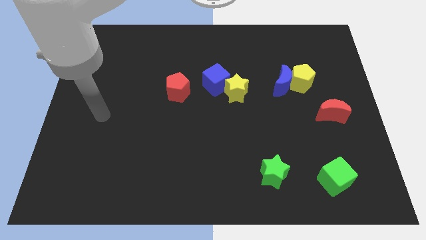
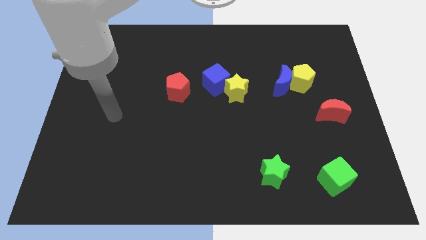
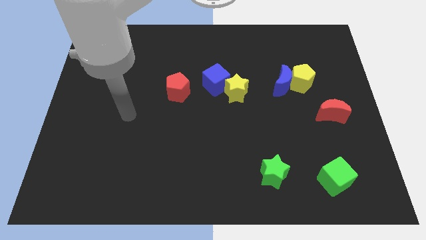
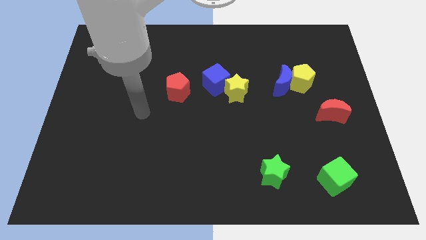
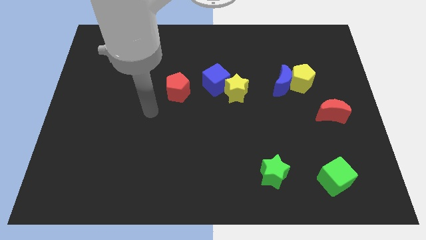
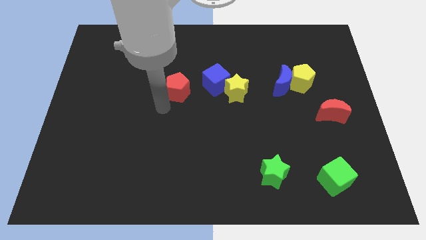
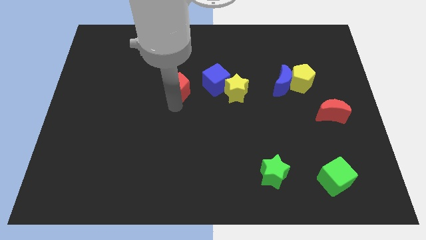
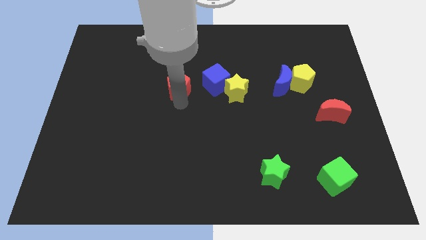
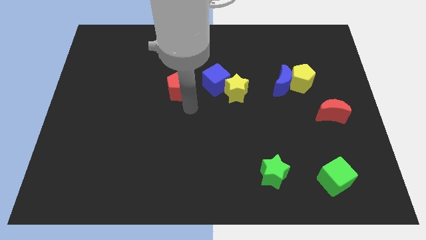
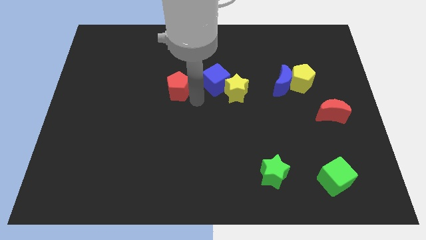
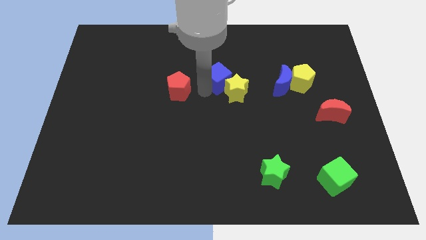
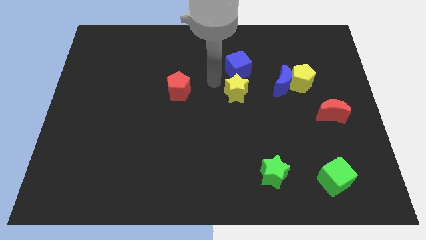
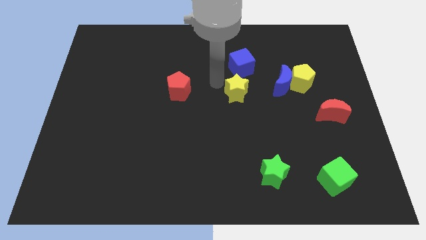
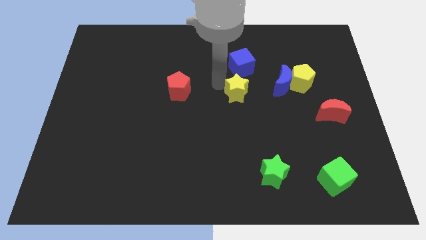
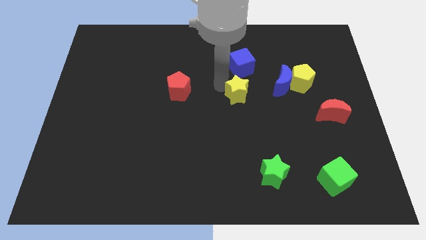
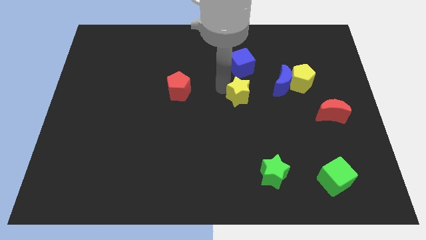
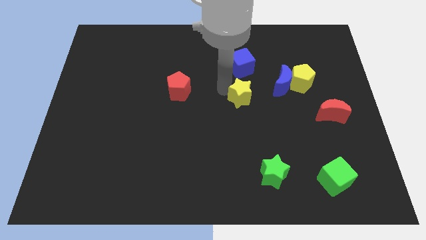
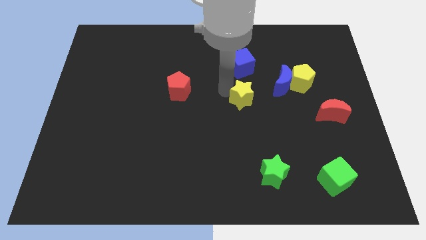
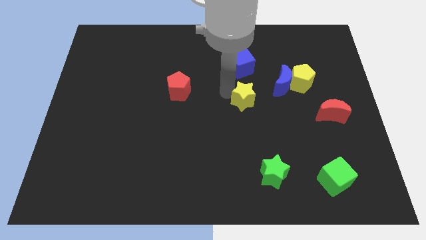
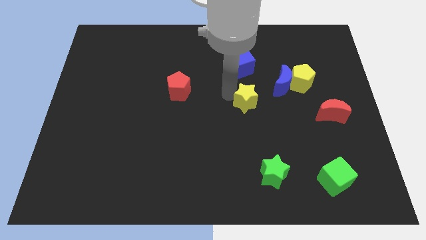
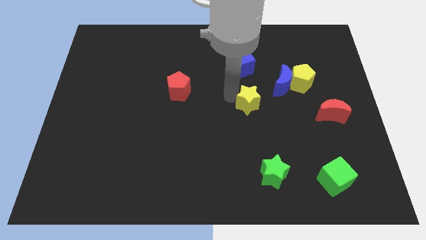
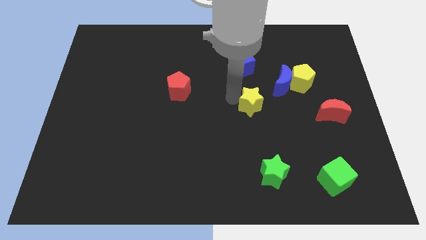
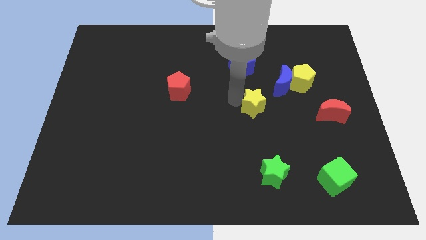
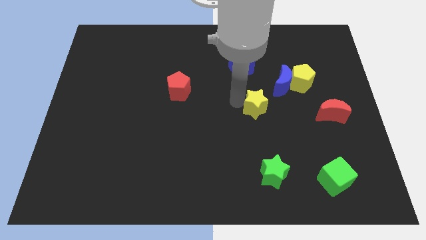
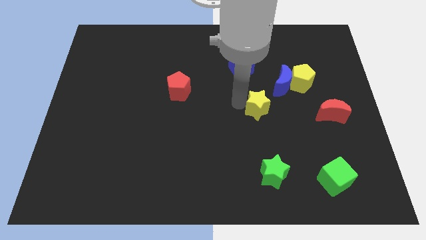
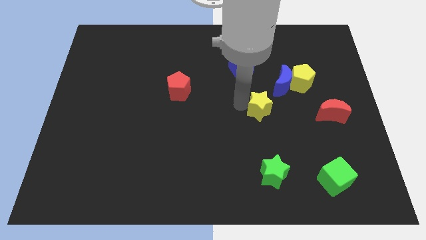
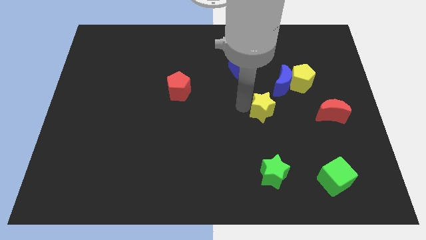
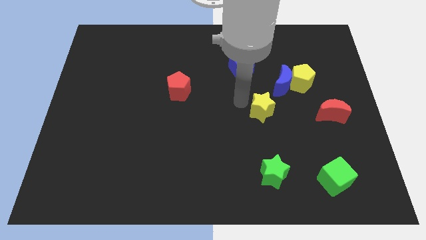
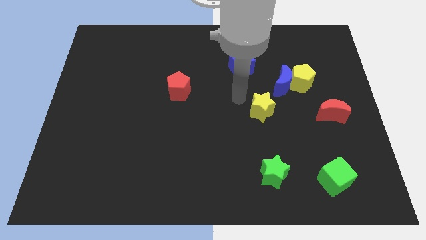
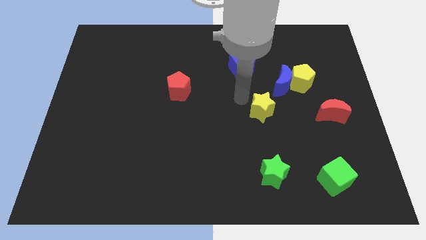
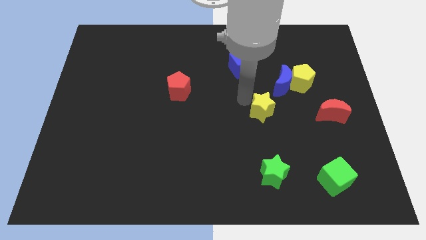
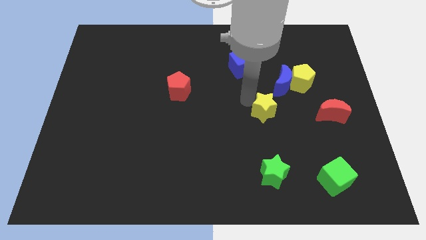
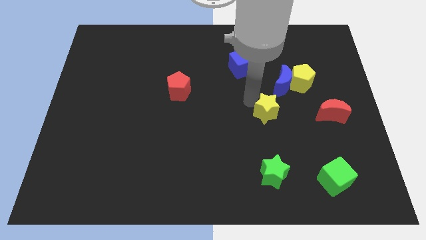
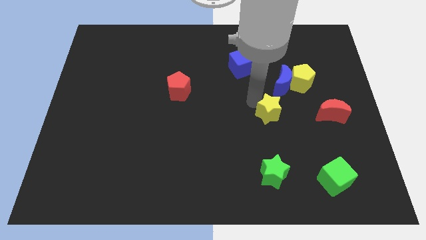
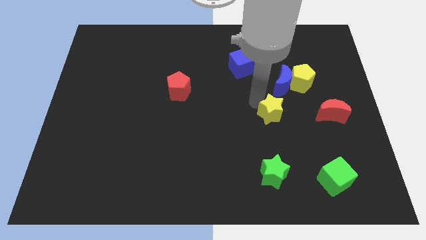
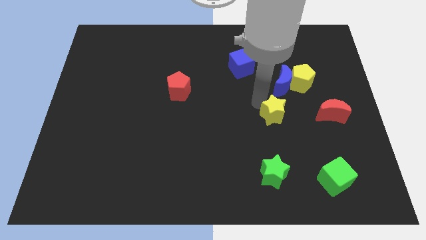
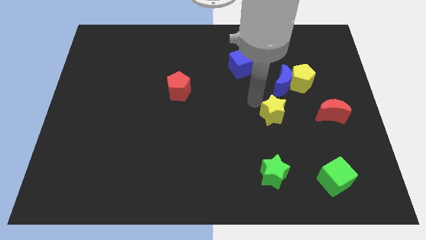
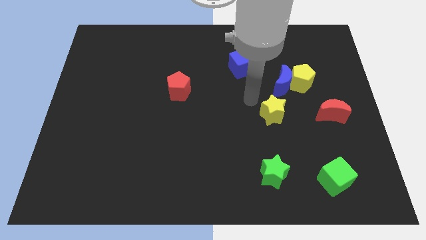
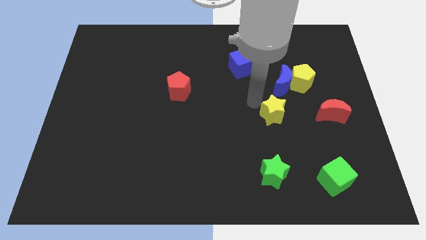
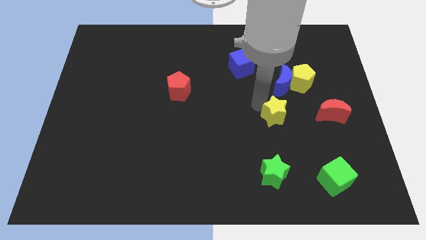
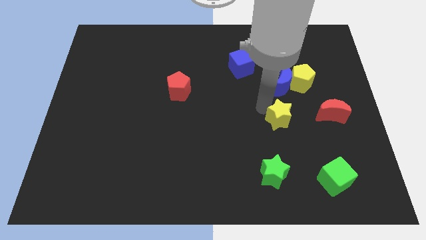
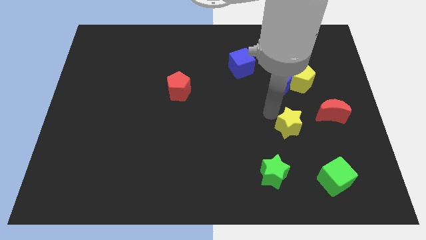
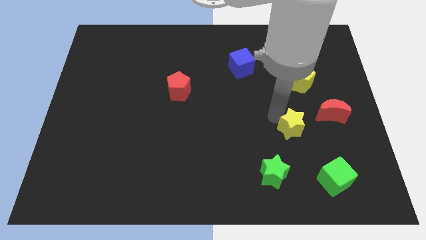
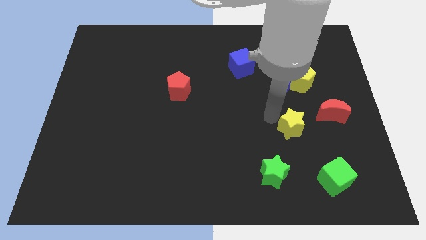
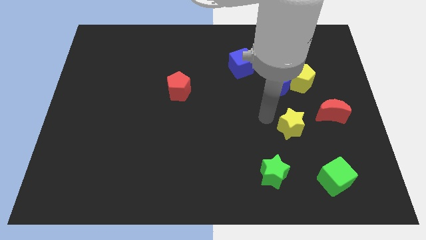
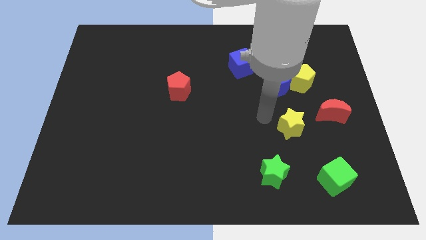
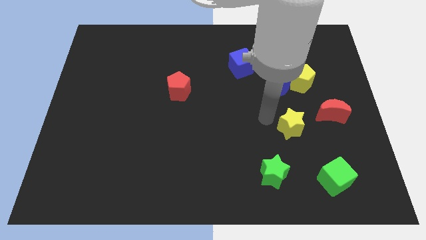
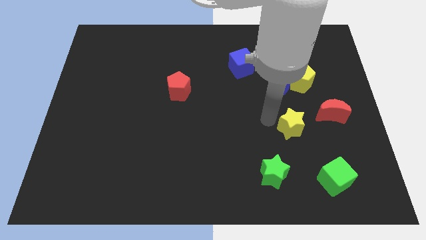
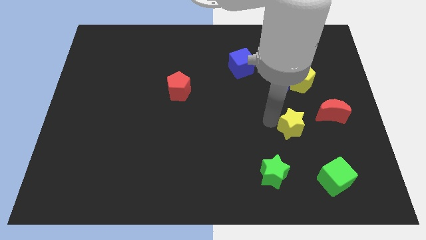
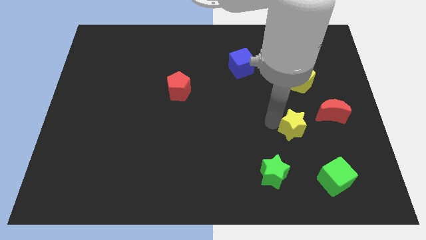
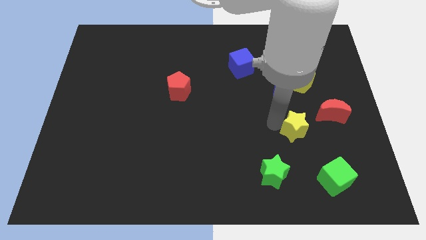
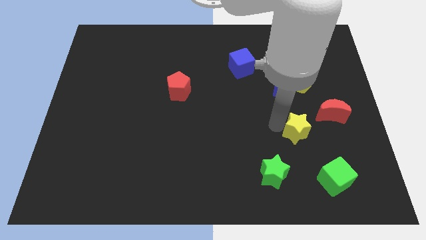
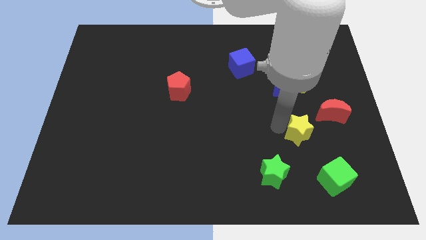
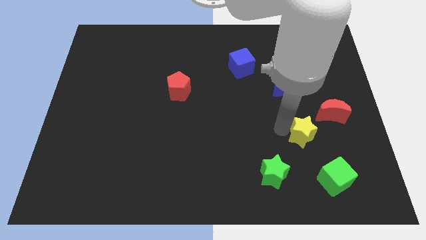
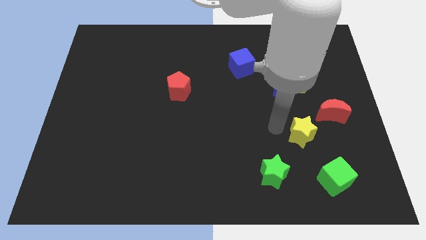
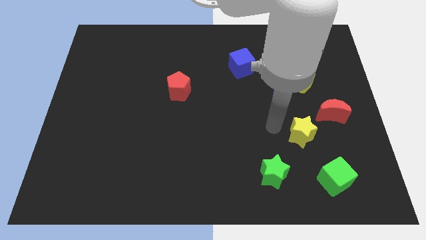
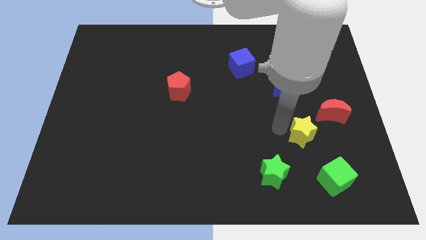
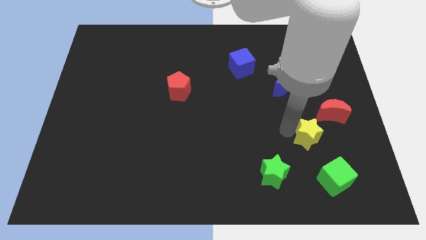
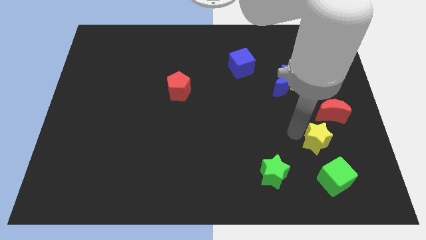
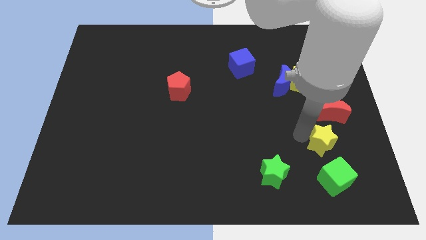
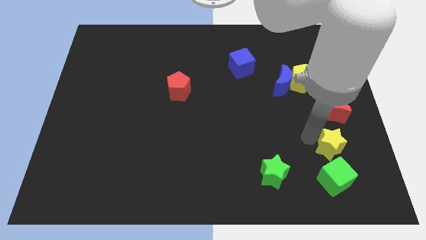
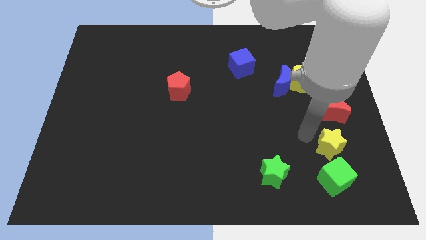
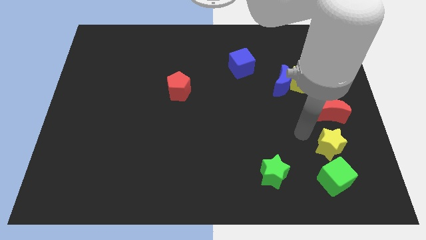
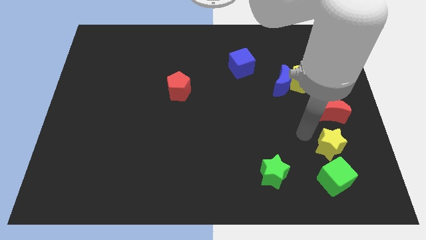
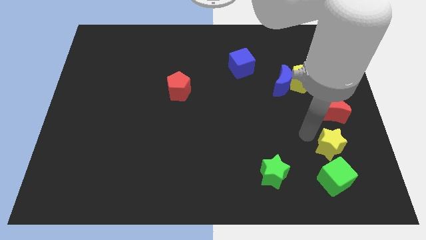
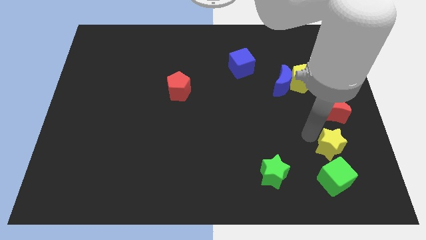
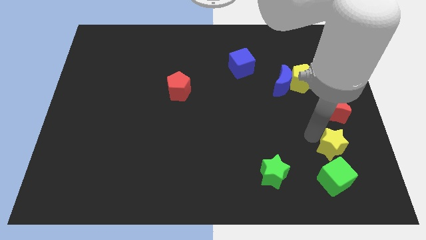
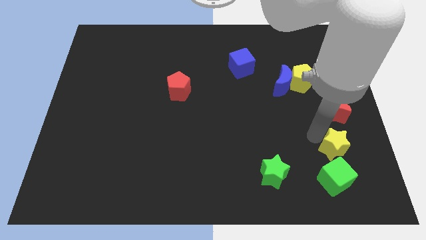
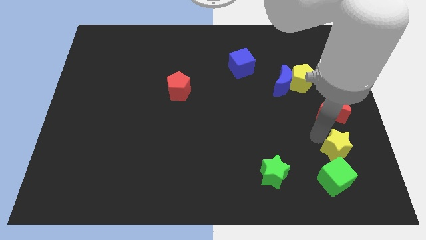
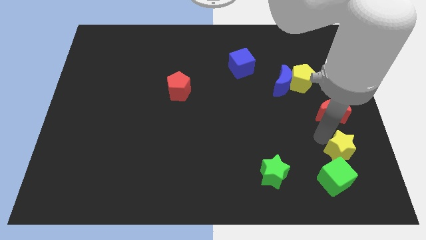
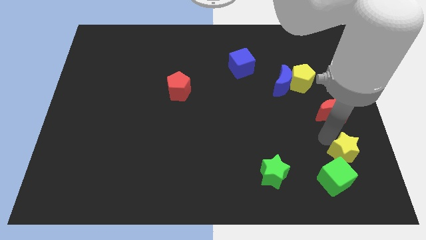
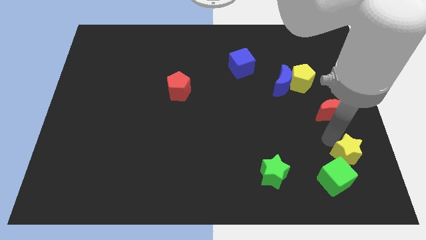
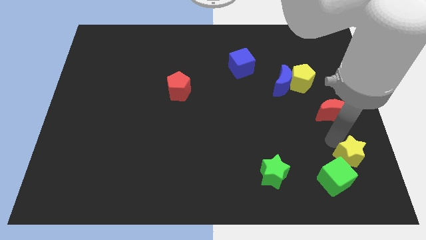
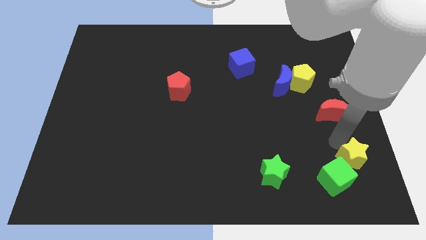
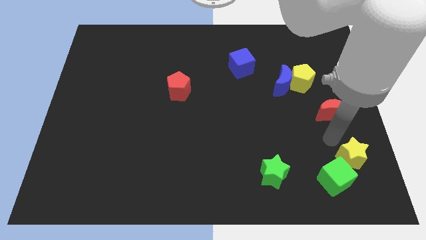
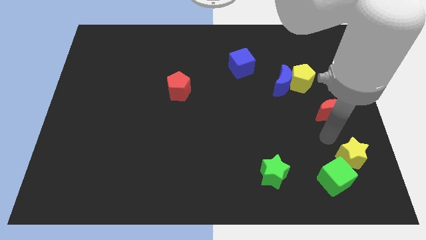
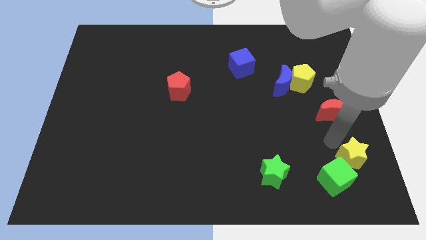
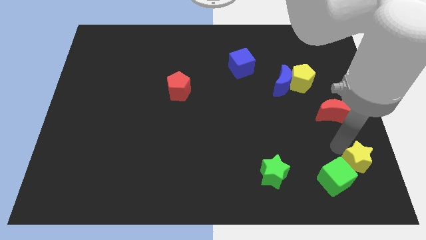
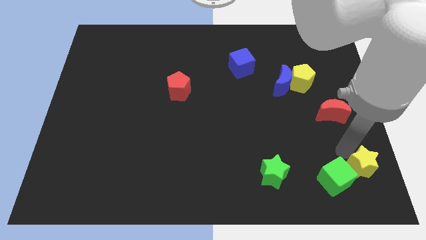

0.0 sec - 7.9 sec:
slide the yellow star to the bottom right of the board
